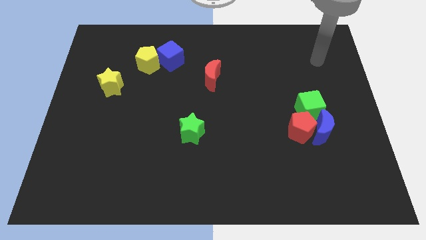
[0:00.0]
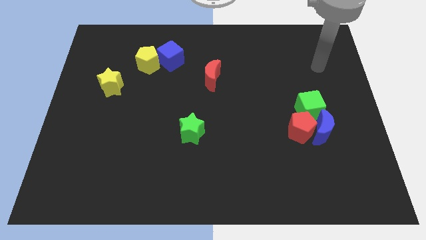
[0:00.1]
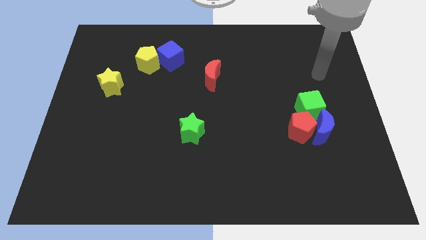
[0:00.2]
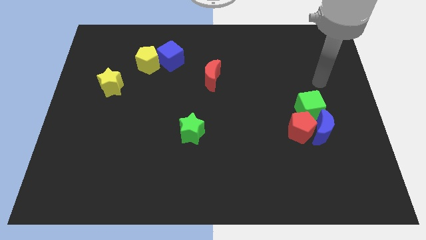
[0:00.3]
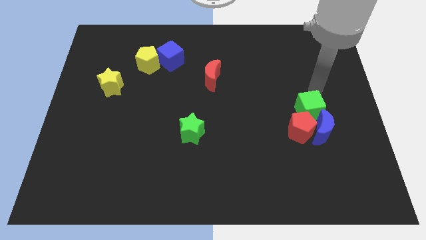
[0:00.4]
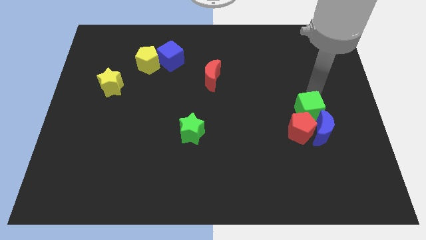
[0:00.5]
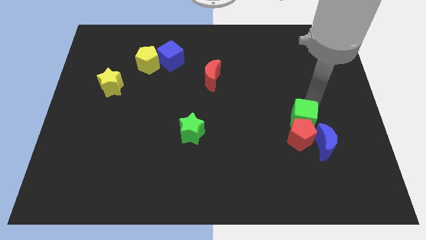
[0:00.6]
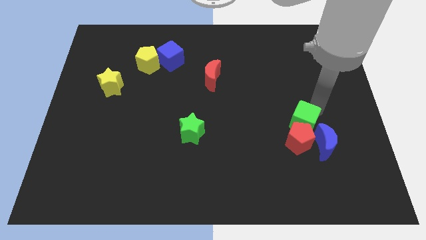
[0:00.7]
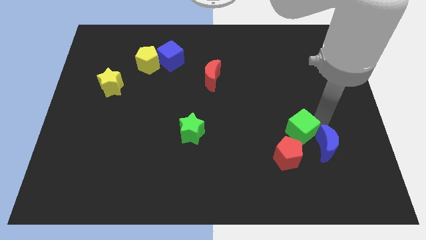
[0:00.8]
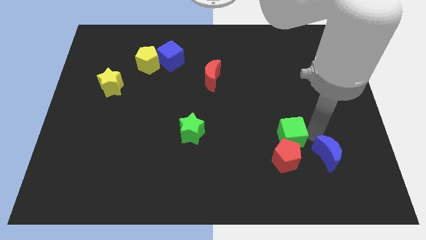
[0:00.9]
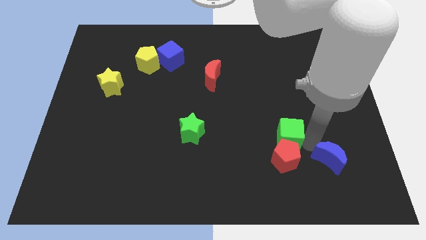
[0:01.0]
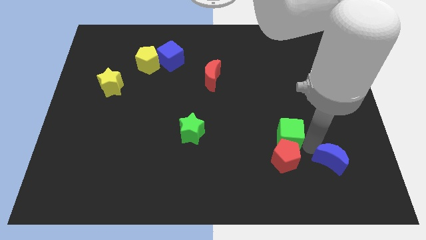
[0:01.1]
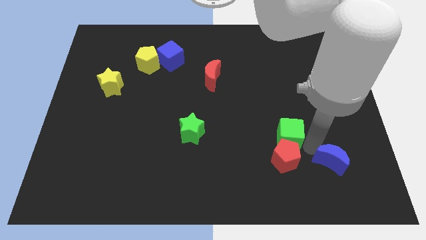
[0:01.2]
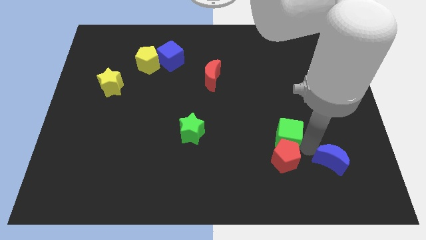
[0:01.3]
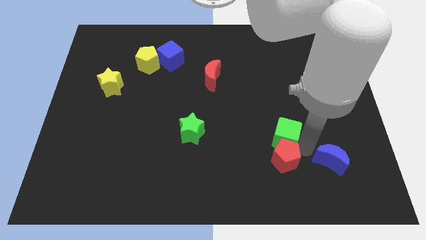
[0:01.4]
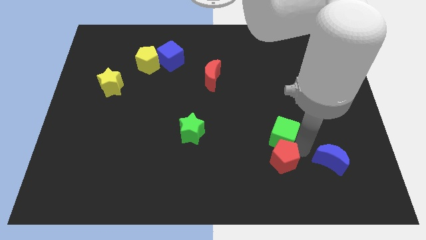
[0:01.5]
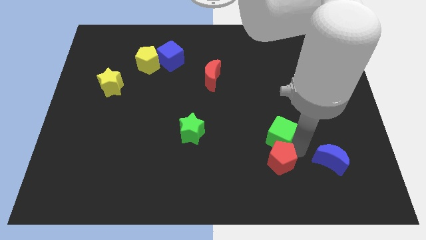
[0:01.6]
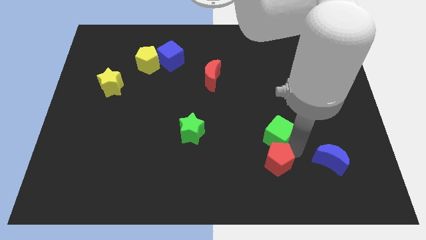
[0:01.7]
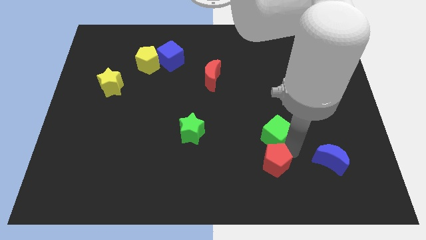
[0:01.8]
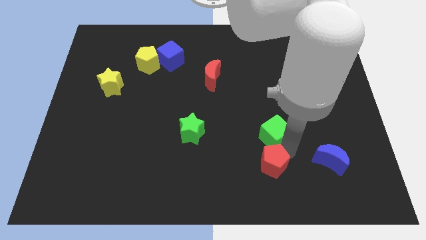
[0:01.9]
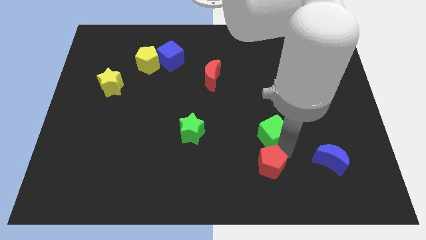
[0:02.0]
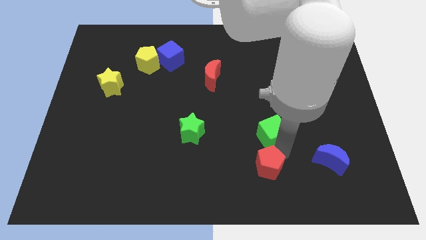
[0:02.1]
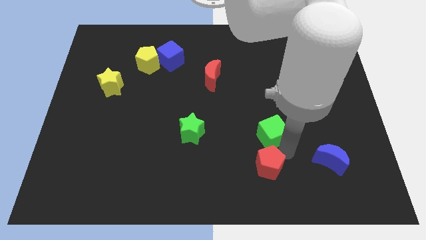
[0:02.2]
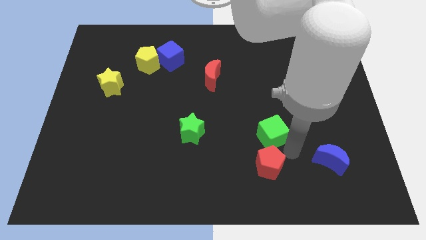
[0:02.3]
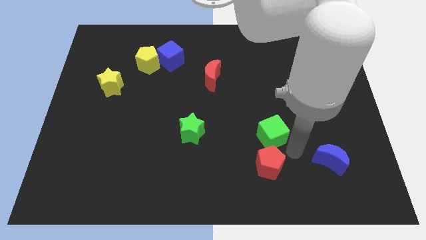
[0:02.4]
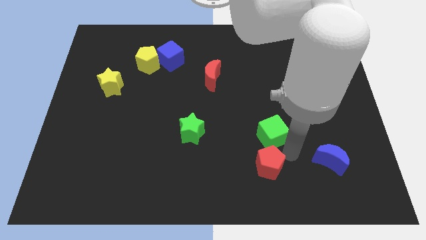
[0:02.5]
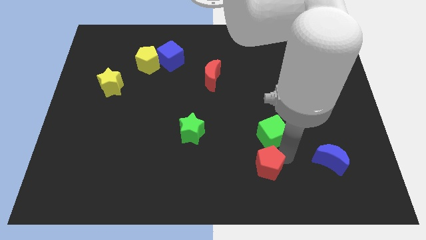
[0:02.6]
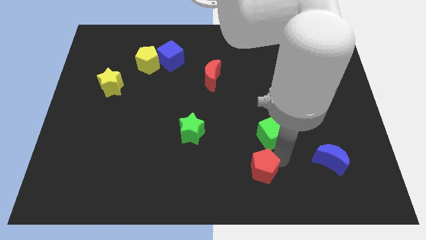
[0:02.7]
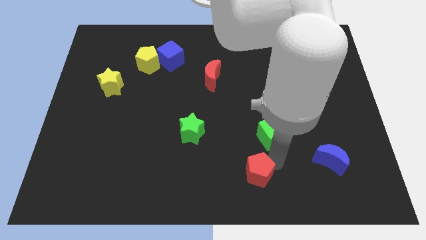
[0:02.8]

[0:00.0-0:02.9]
separate the red pentagon from the blue moon and green cube

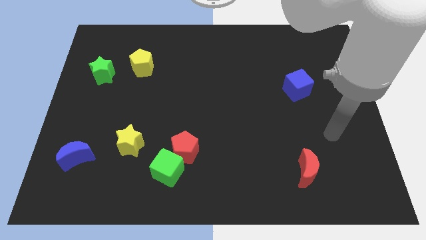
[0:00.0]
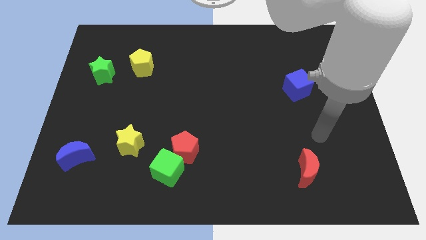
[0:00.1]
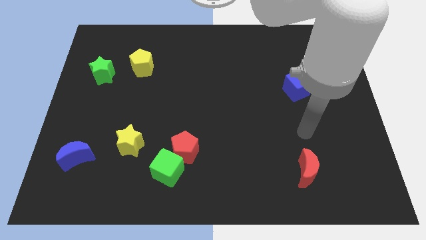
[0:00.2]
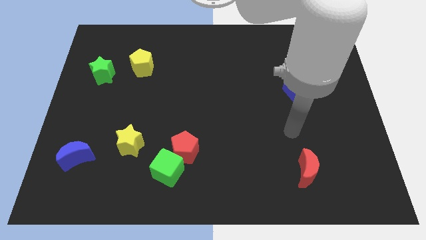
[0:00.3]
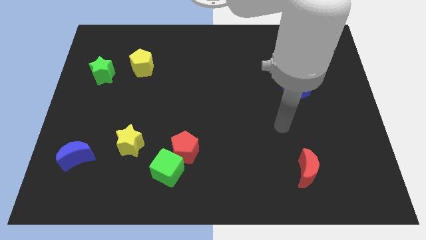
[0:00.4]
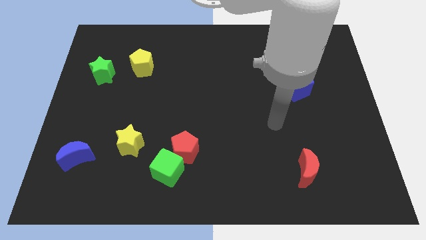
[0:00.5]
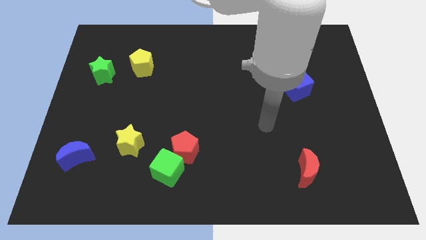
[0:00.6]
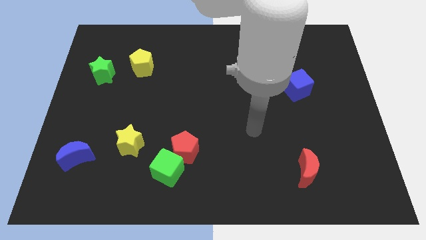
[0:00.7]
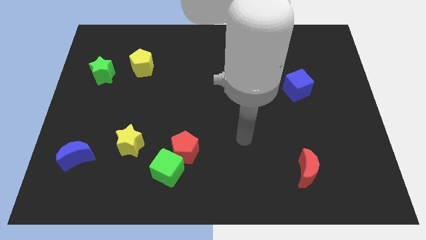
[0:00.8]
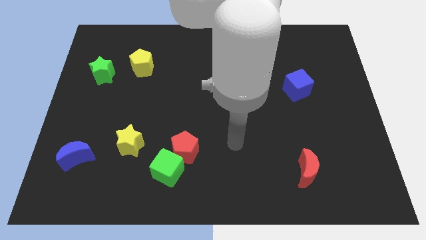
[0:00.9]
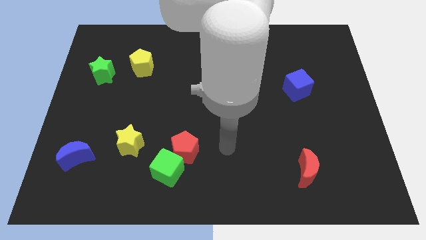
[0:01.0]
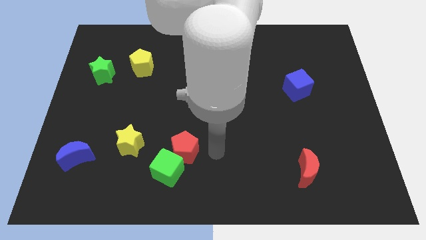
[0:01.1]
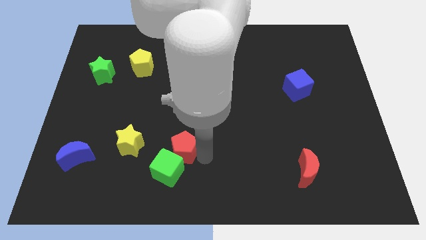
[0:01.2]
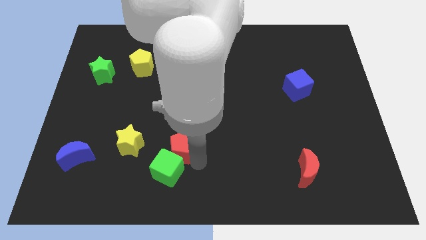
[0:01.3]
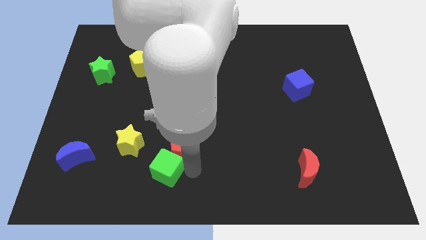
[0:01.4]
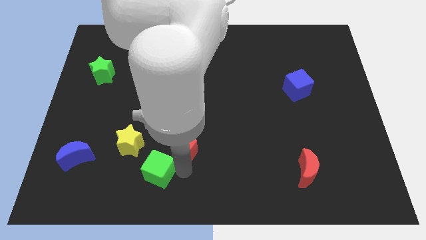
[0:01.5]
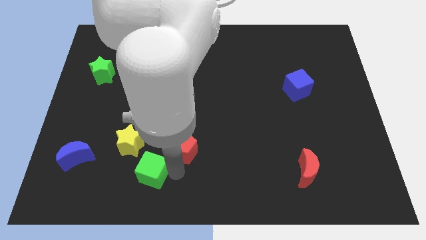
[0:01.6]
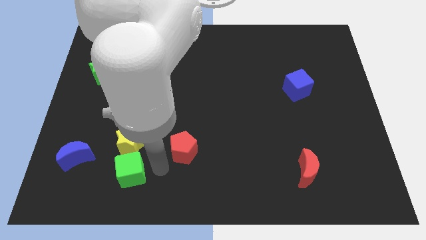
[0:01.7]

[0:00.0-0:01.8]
pull the red pentagon apart from the green cube

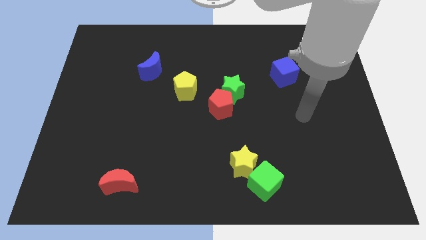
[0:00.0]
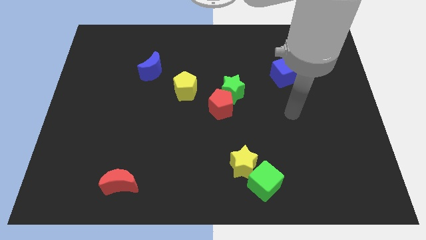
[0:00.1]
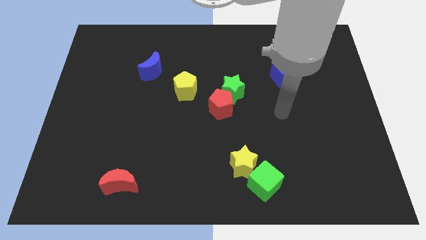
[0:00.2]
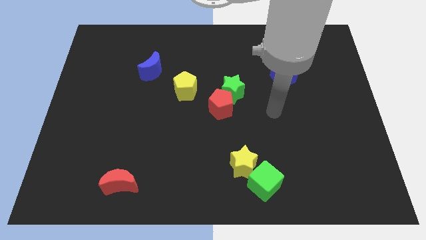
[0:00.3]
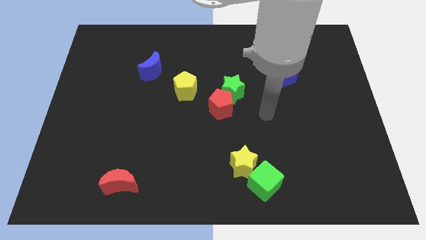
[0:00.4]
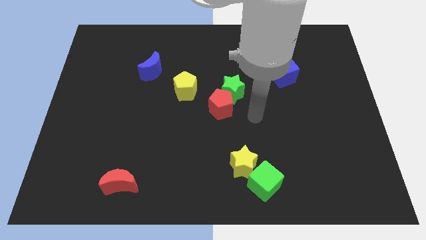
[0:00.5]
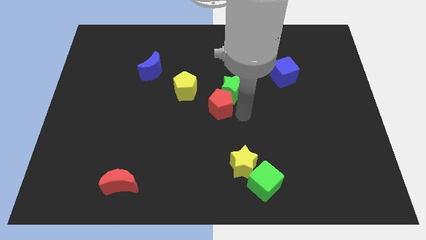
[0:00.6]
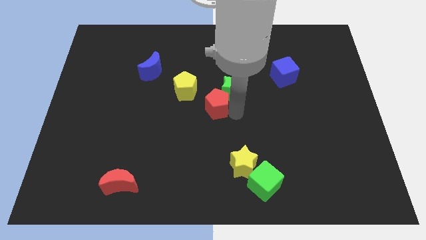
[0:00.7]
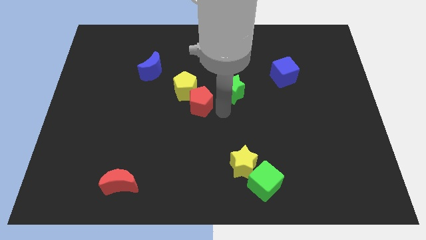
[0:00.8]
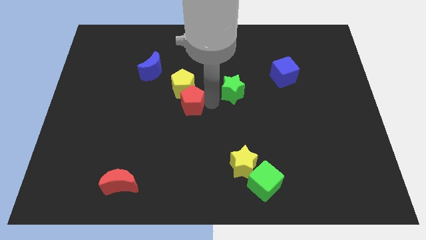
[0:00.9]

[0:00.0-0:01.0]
pull the green star apart from the red pentagon

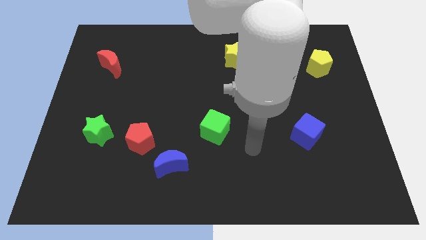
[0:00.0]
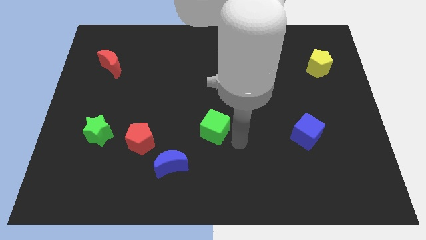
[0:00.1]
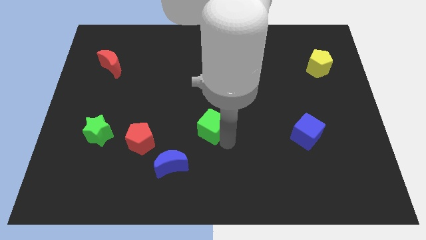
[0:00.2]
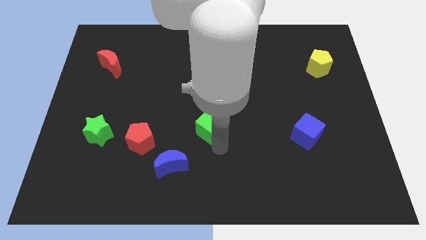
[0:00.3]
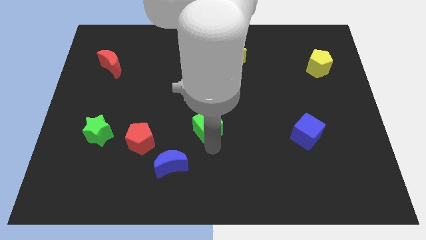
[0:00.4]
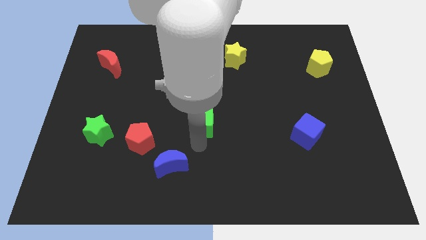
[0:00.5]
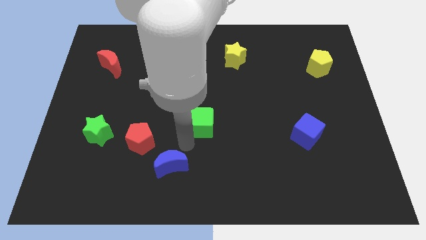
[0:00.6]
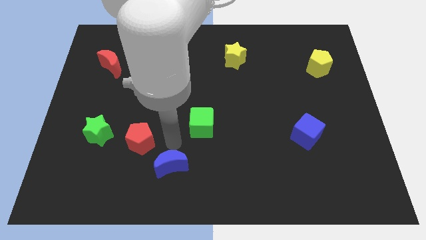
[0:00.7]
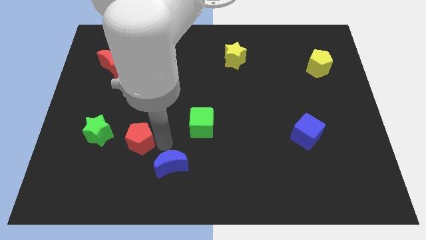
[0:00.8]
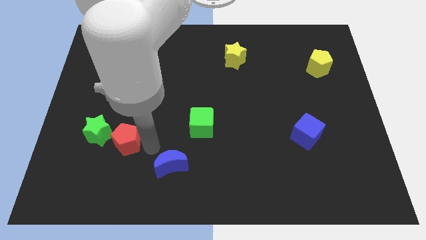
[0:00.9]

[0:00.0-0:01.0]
separate the blue moon from the red pentagon

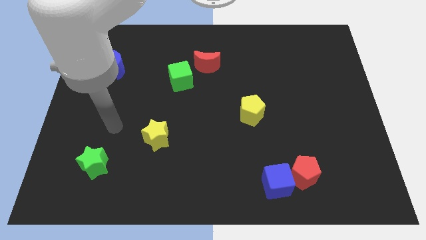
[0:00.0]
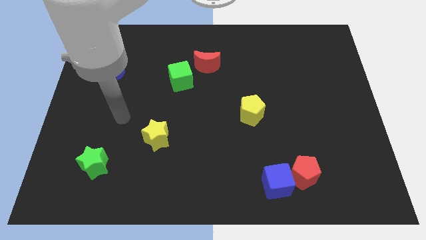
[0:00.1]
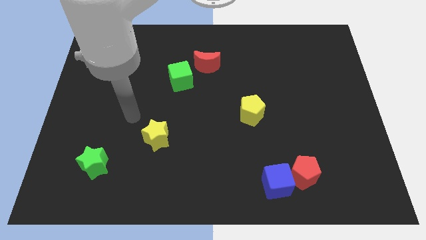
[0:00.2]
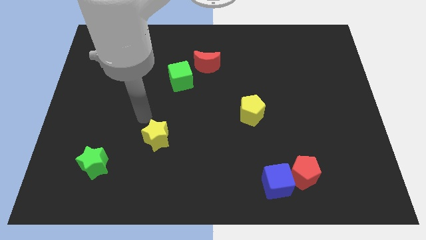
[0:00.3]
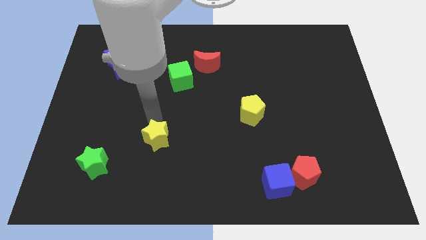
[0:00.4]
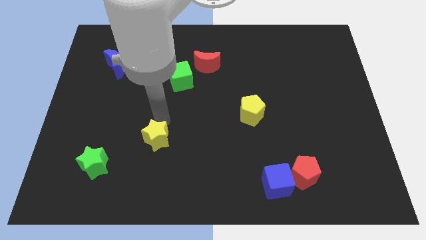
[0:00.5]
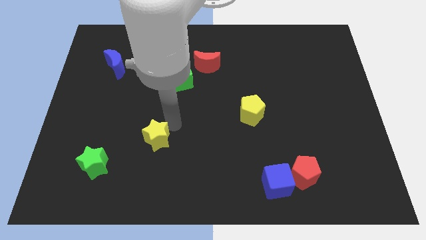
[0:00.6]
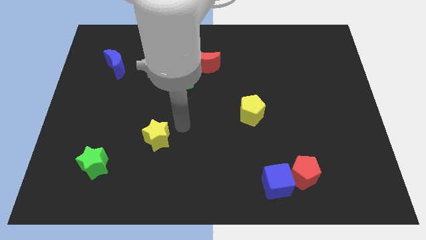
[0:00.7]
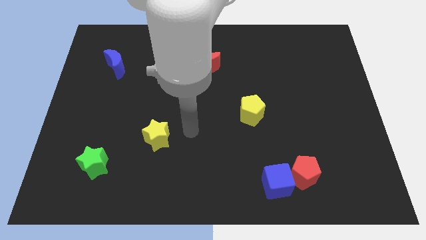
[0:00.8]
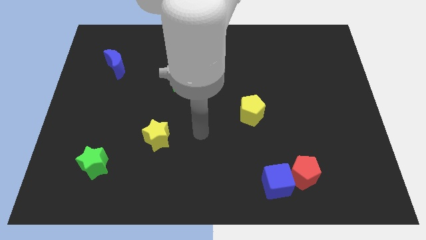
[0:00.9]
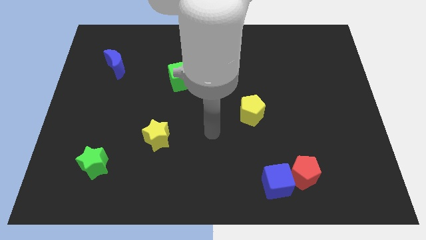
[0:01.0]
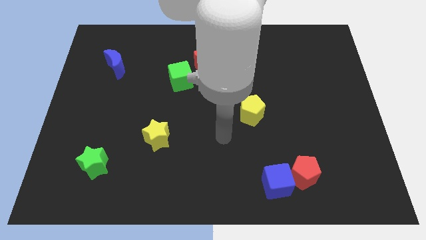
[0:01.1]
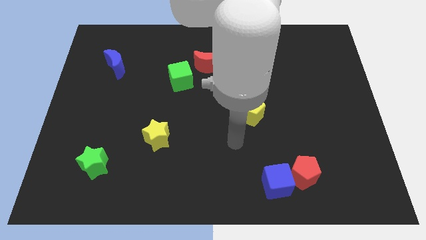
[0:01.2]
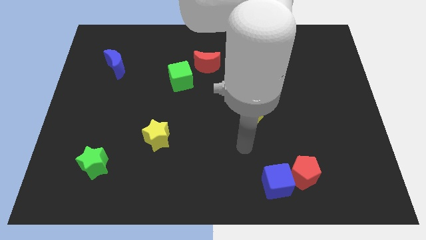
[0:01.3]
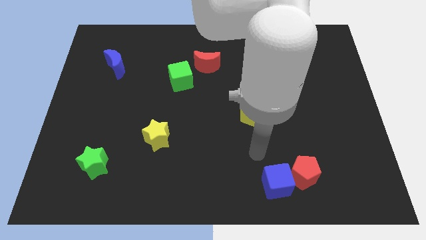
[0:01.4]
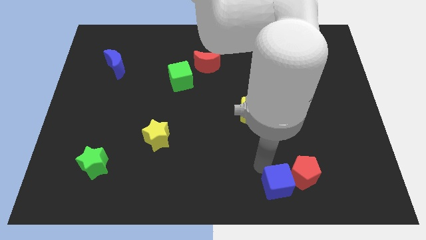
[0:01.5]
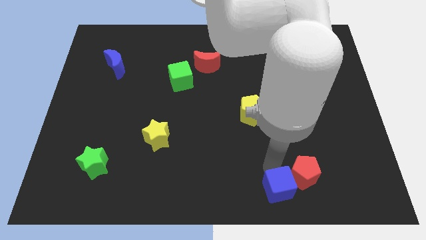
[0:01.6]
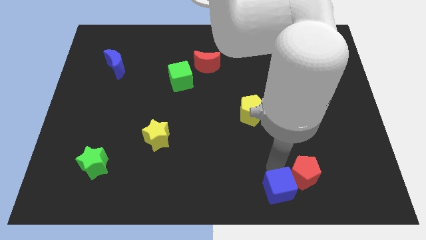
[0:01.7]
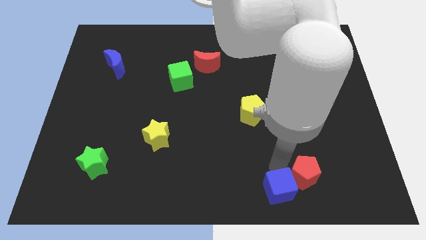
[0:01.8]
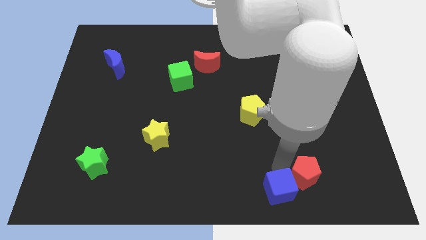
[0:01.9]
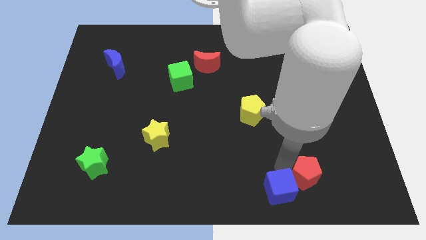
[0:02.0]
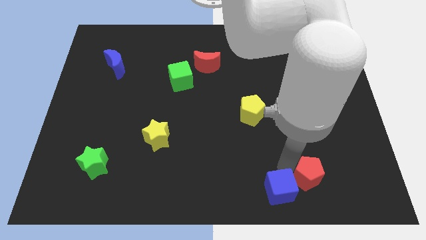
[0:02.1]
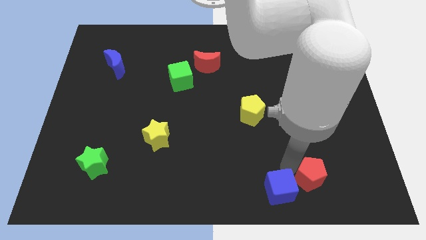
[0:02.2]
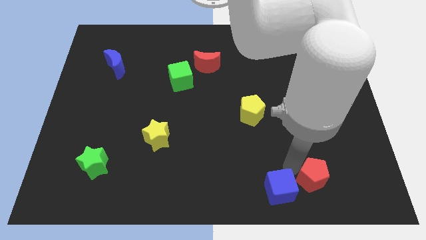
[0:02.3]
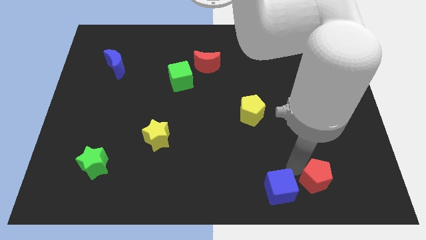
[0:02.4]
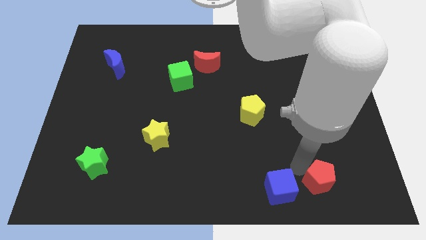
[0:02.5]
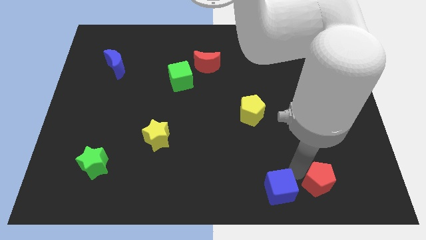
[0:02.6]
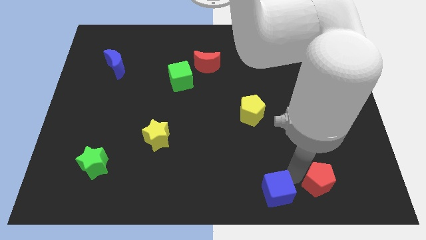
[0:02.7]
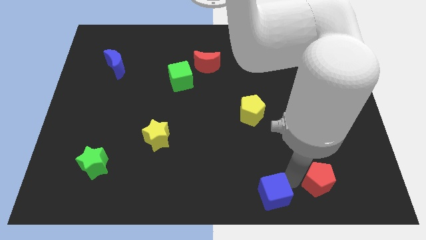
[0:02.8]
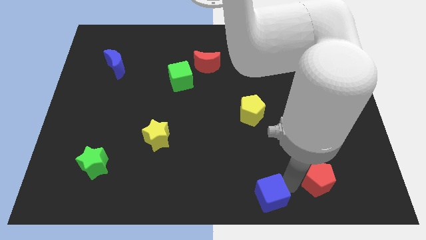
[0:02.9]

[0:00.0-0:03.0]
pull the red pentagon apart from the blue cube
